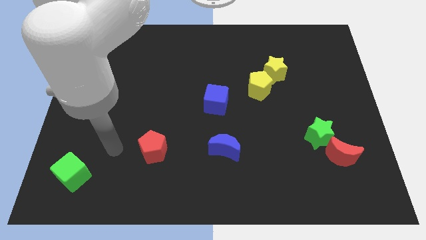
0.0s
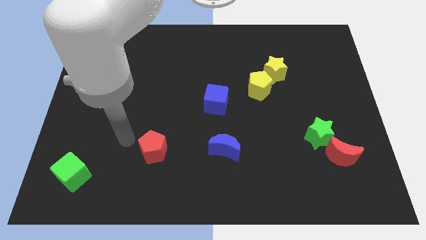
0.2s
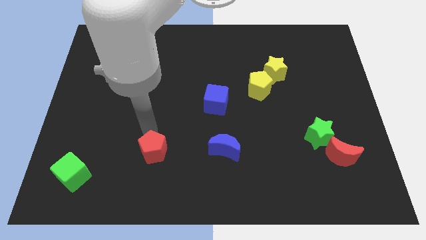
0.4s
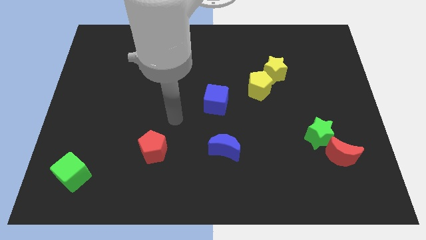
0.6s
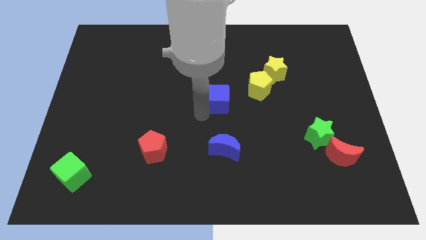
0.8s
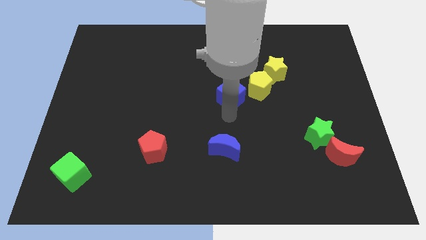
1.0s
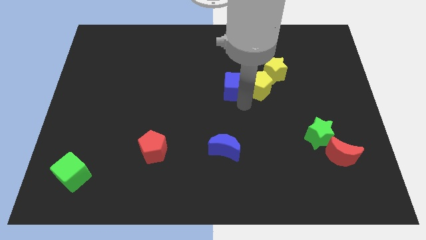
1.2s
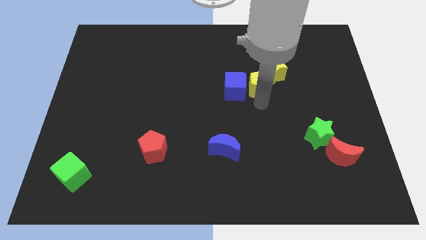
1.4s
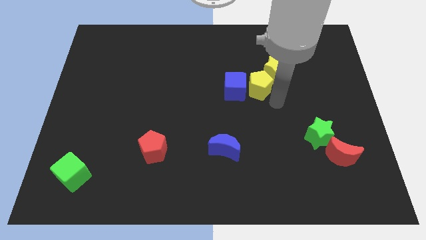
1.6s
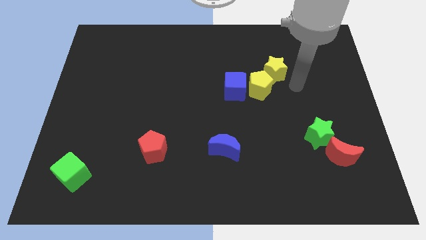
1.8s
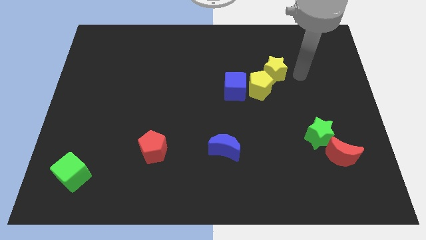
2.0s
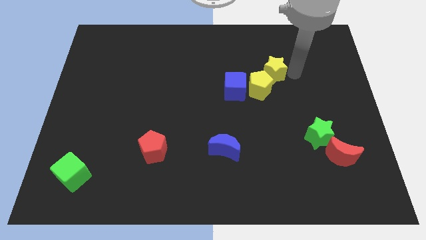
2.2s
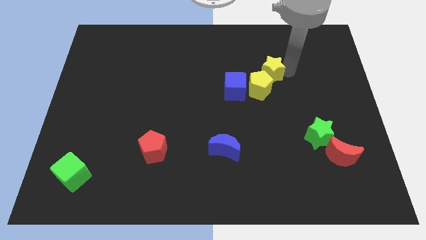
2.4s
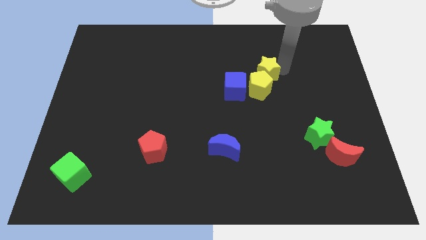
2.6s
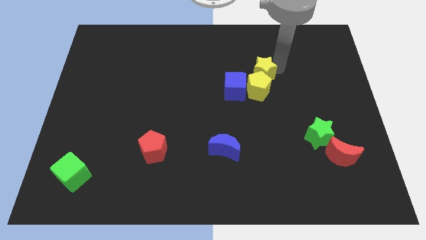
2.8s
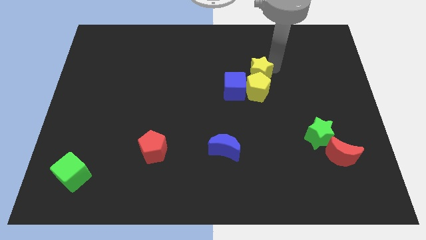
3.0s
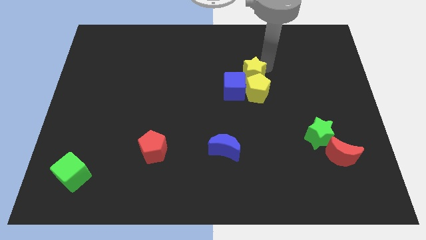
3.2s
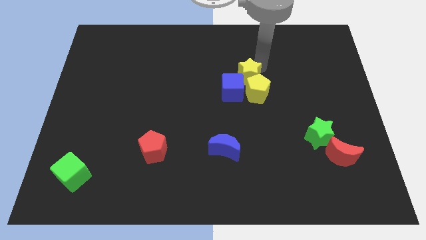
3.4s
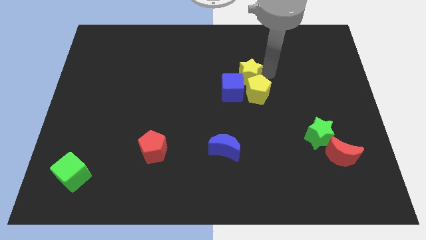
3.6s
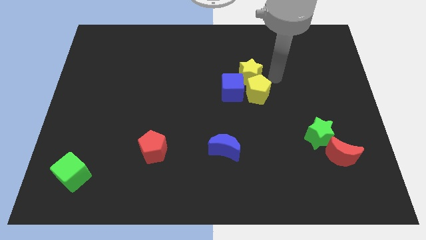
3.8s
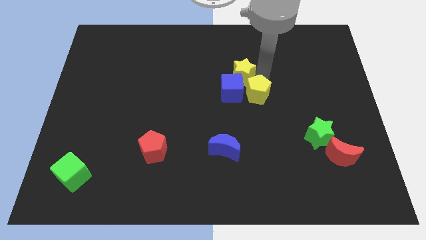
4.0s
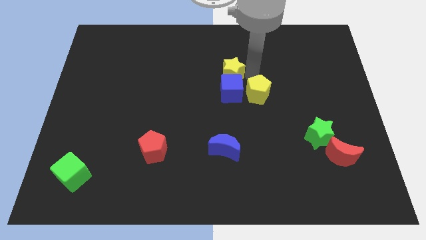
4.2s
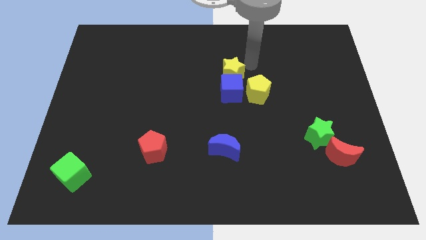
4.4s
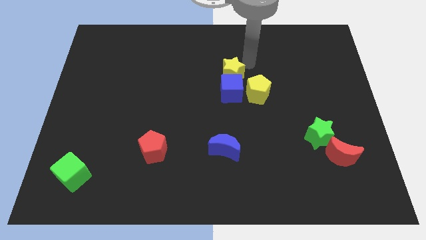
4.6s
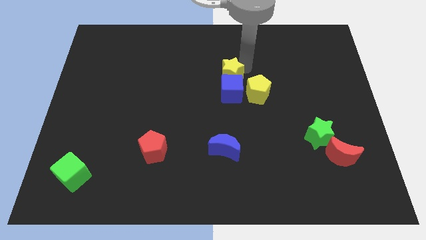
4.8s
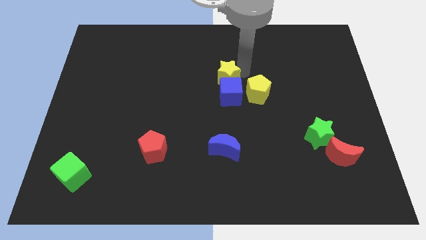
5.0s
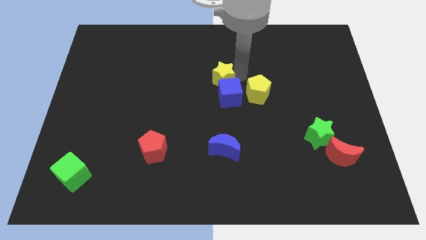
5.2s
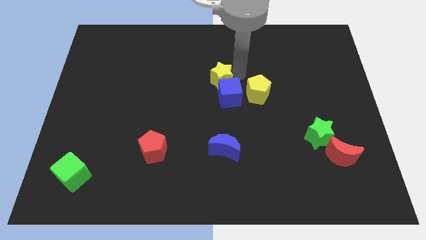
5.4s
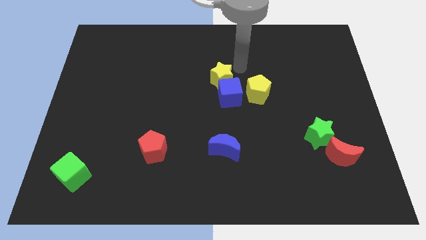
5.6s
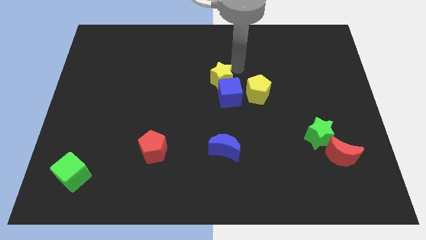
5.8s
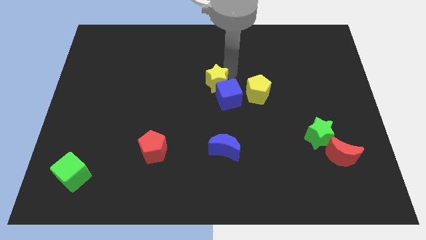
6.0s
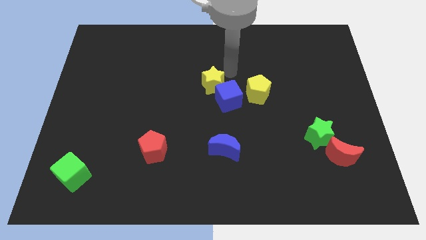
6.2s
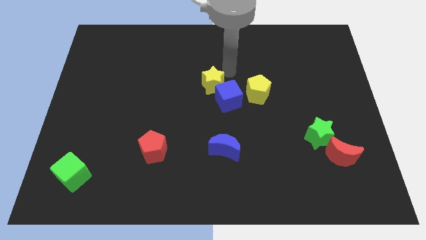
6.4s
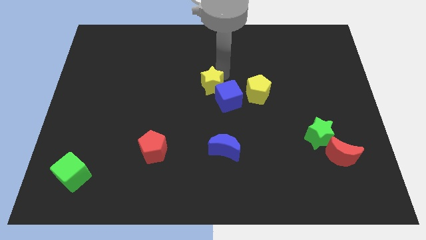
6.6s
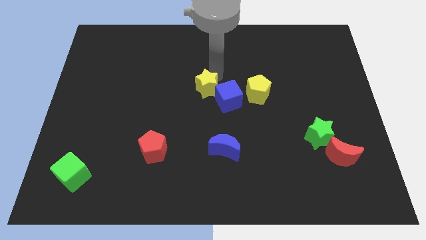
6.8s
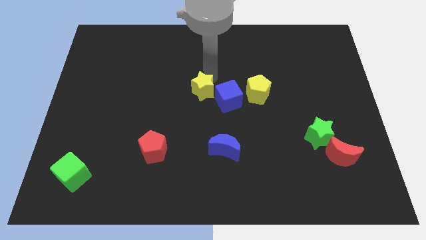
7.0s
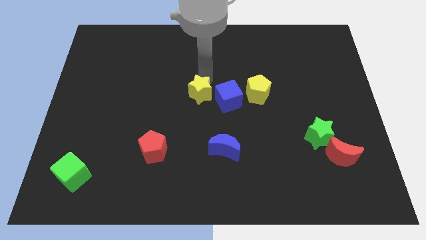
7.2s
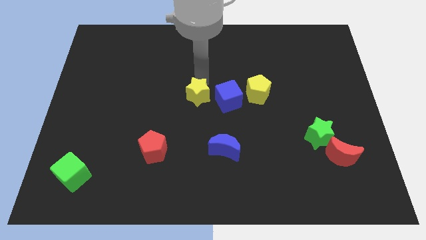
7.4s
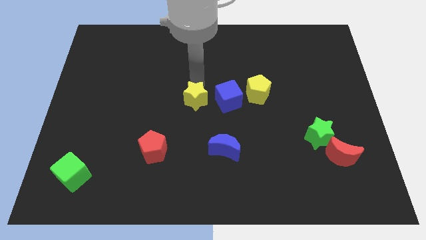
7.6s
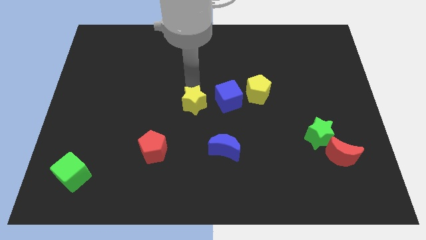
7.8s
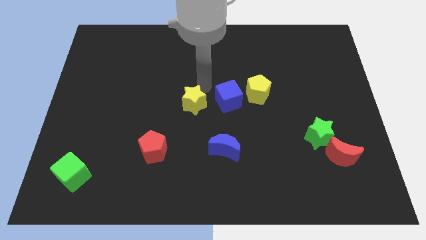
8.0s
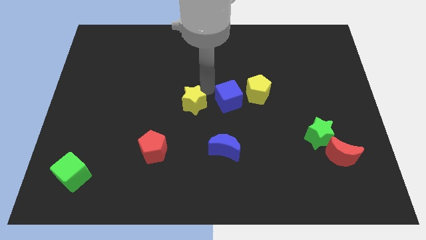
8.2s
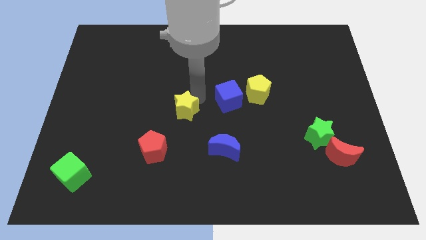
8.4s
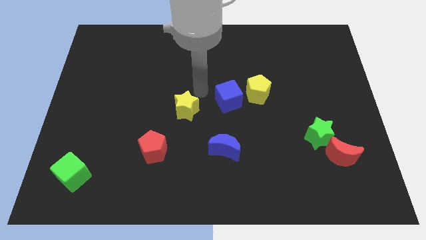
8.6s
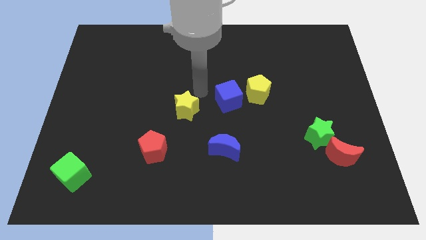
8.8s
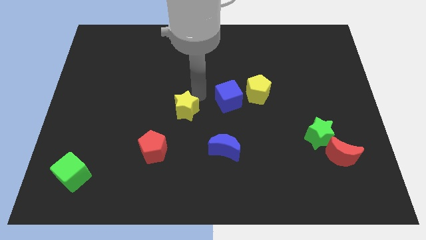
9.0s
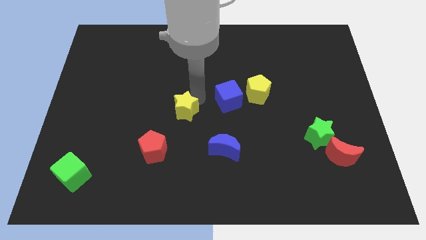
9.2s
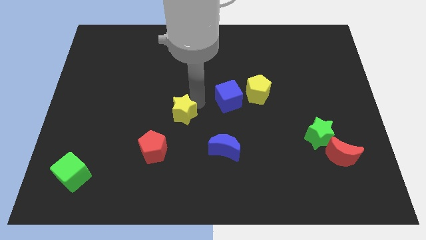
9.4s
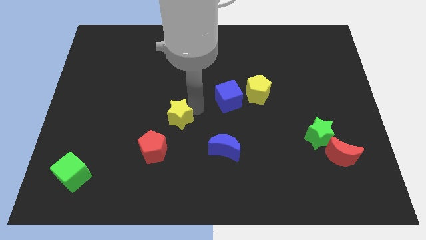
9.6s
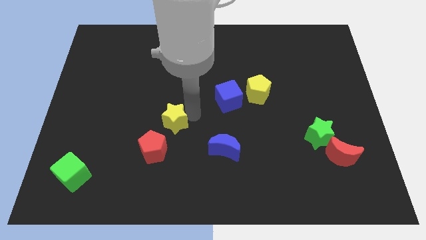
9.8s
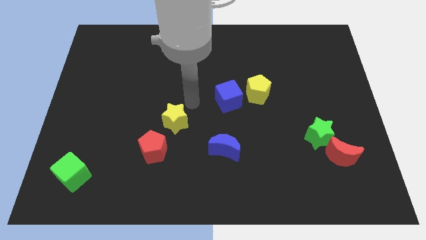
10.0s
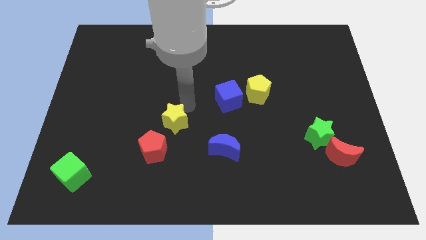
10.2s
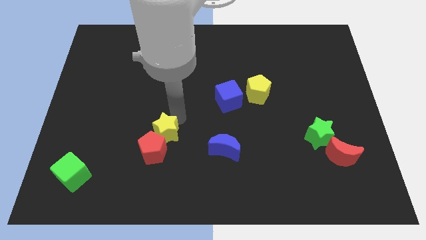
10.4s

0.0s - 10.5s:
slide the yellow star next to the red pentagon

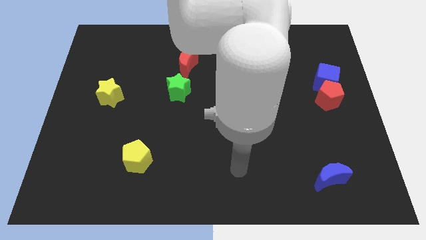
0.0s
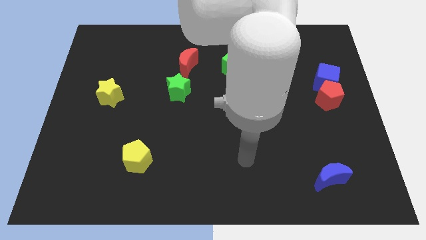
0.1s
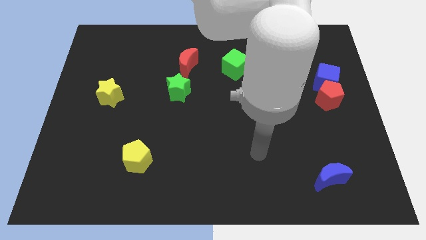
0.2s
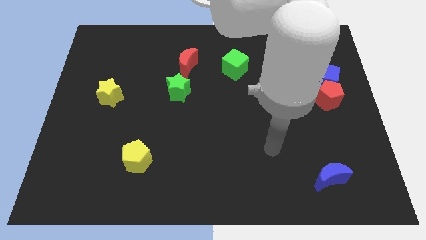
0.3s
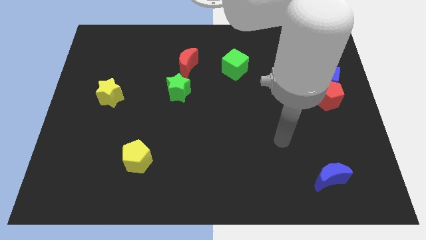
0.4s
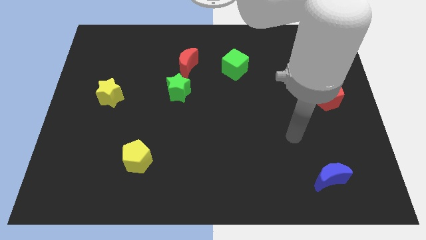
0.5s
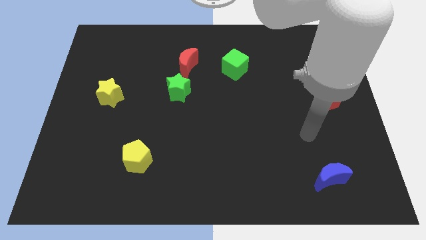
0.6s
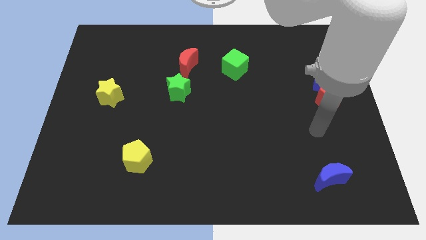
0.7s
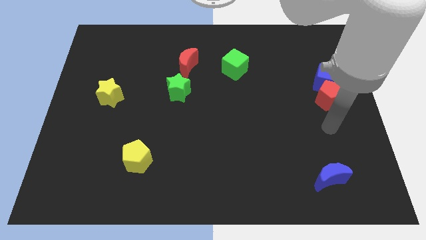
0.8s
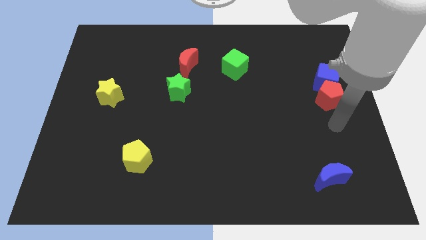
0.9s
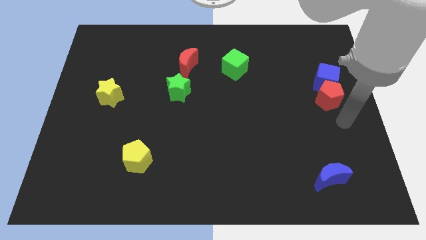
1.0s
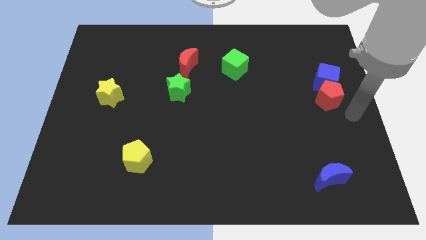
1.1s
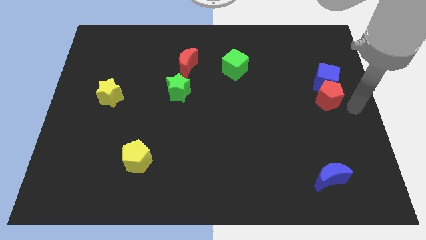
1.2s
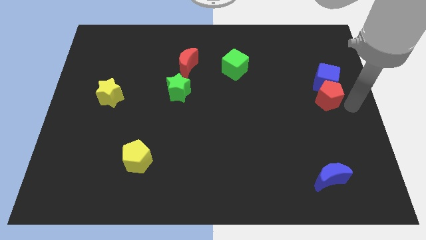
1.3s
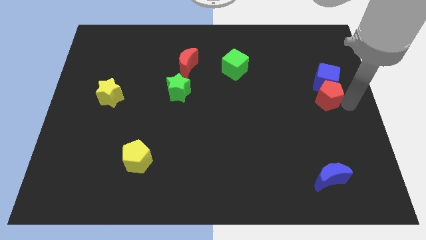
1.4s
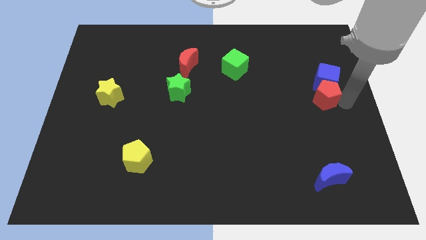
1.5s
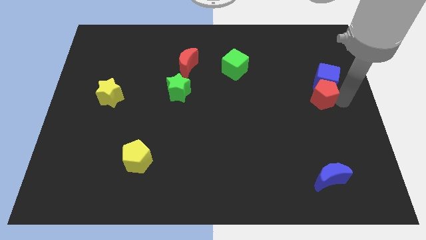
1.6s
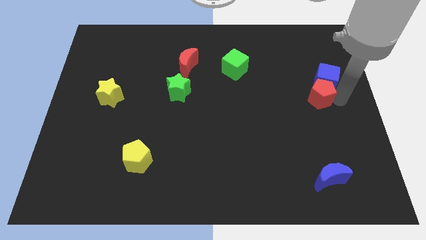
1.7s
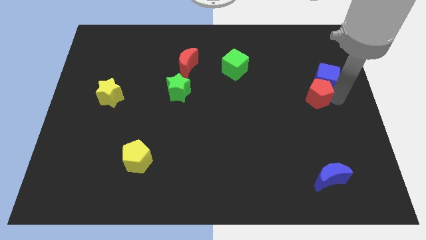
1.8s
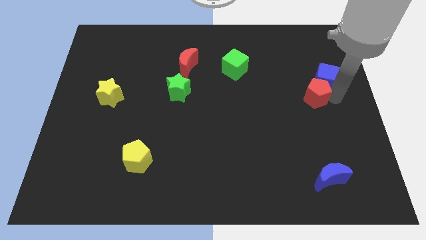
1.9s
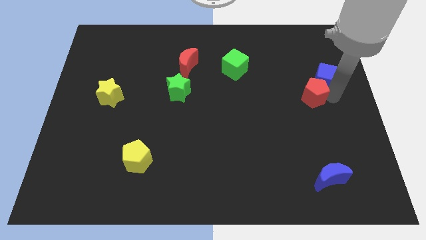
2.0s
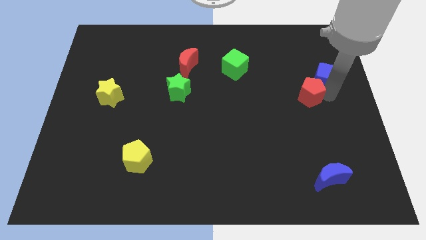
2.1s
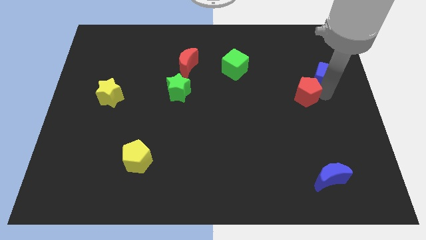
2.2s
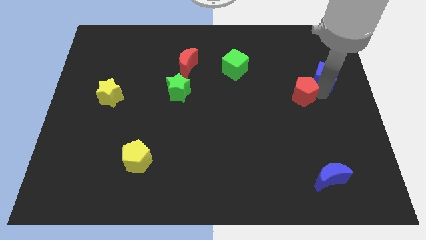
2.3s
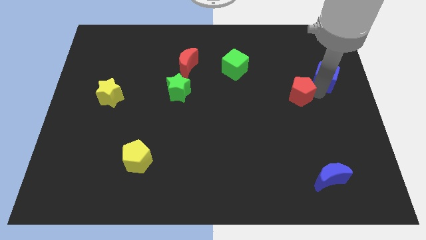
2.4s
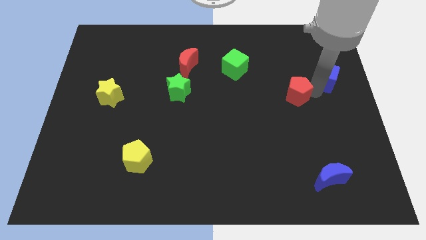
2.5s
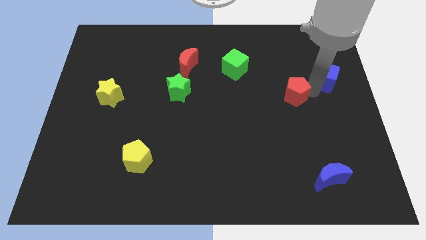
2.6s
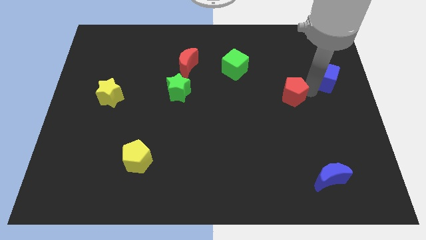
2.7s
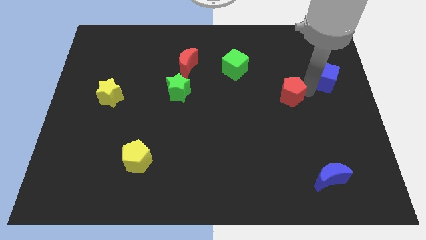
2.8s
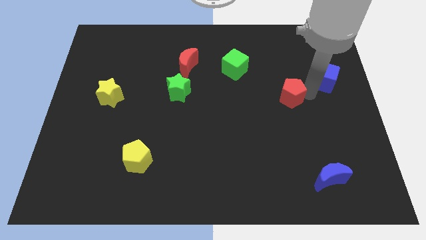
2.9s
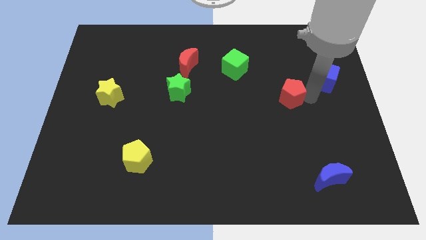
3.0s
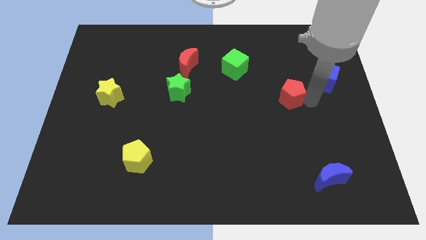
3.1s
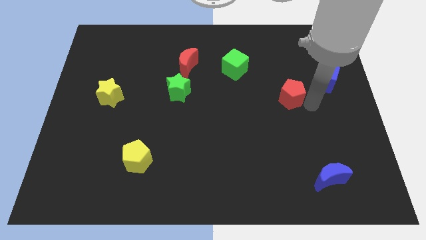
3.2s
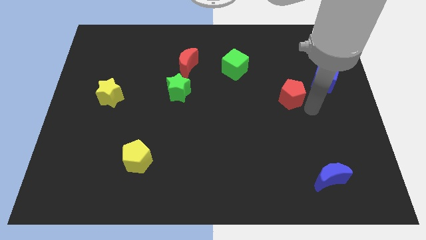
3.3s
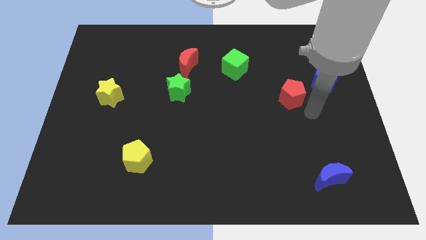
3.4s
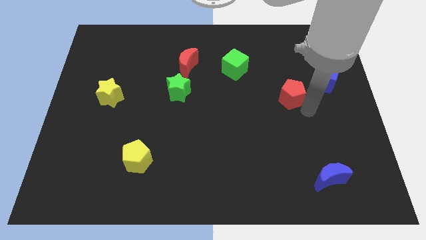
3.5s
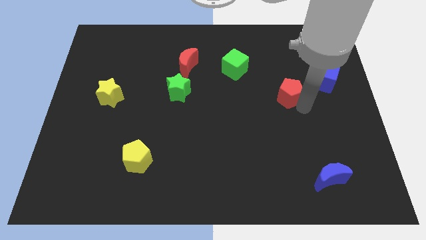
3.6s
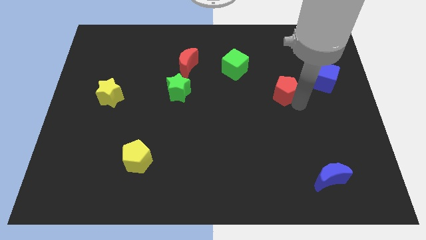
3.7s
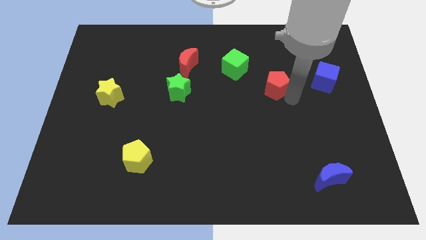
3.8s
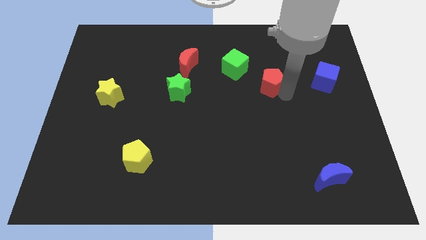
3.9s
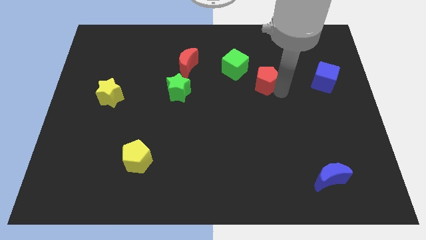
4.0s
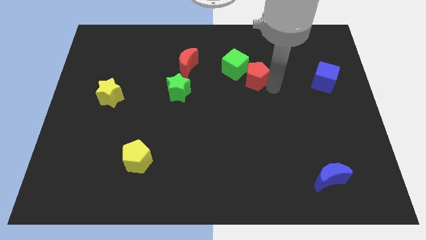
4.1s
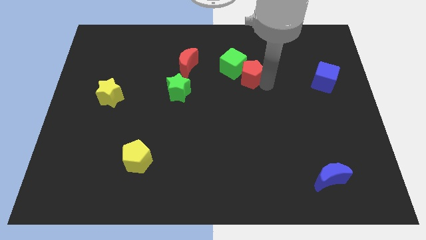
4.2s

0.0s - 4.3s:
move the red pentagon next to the green cube
